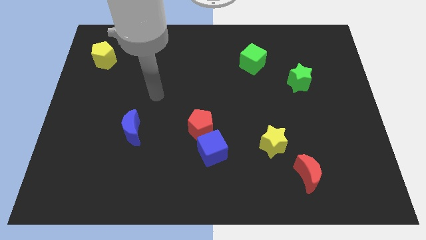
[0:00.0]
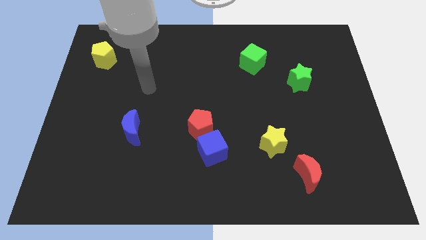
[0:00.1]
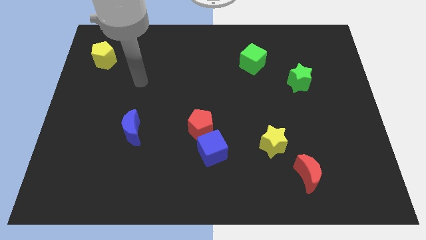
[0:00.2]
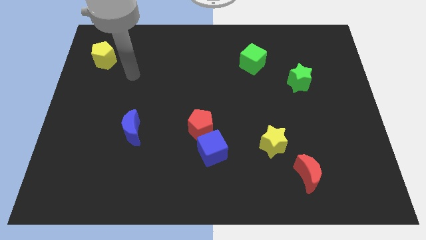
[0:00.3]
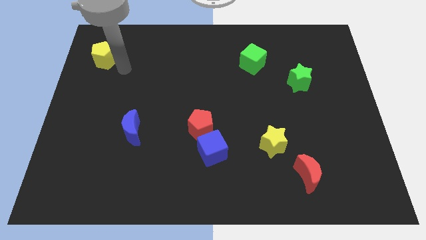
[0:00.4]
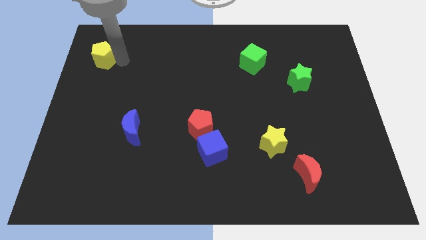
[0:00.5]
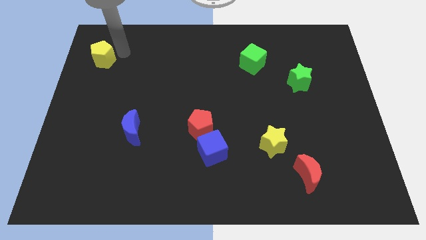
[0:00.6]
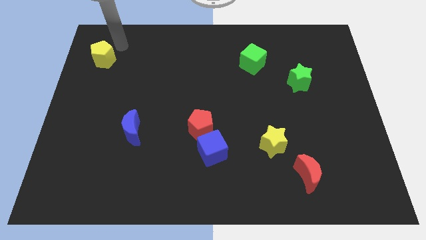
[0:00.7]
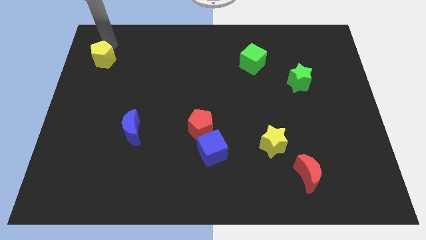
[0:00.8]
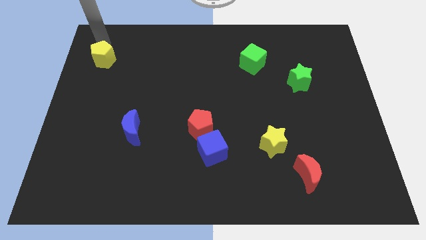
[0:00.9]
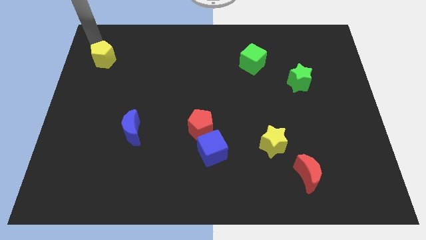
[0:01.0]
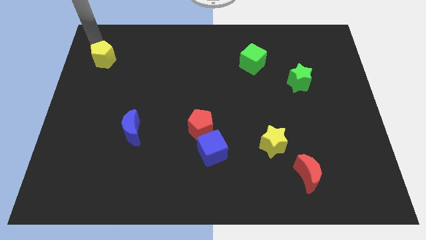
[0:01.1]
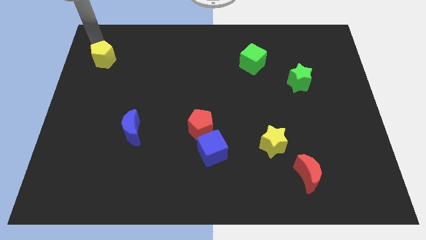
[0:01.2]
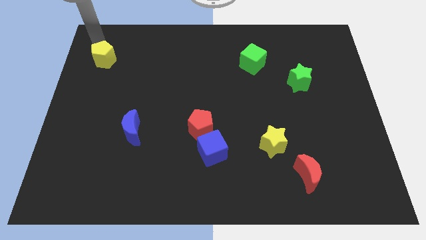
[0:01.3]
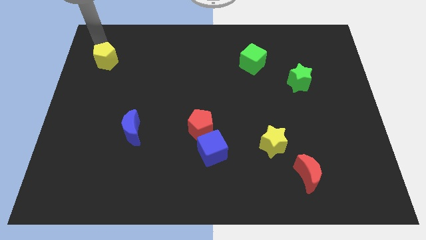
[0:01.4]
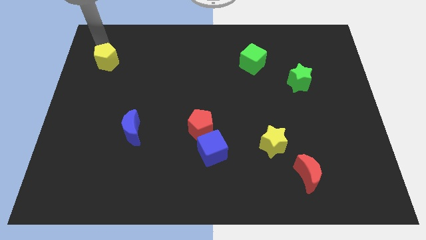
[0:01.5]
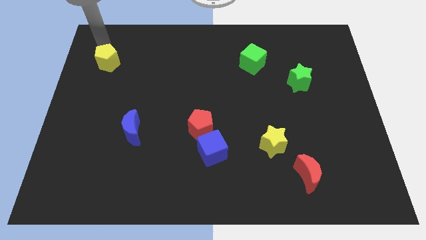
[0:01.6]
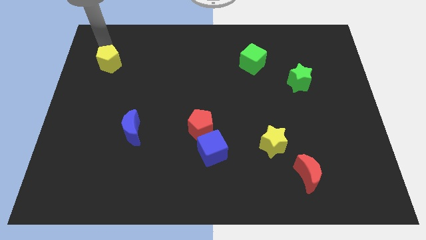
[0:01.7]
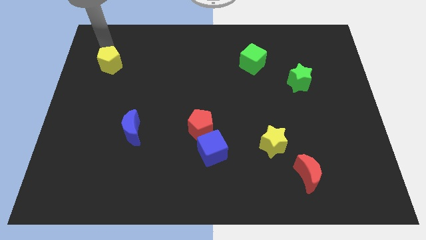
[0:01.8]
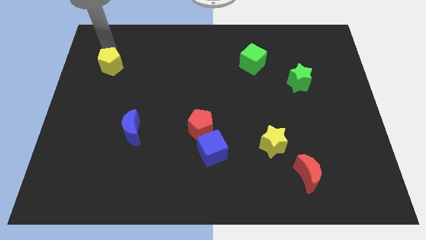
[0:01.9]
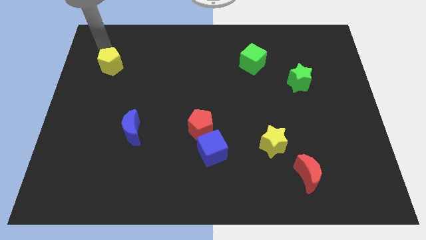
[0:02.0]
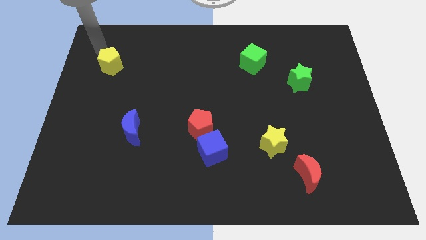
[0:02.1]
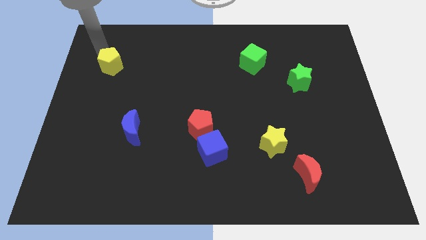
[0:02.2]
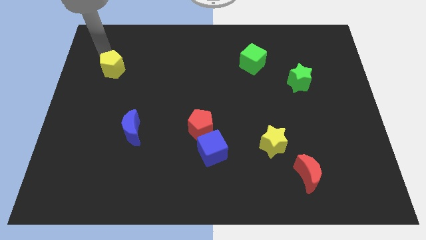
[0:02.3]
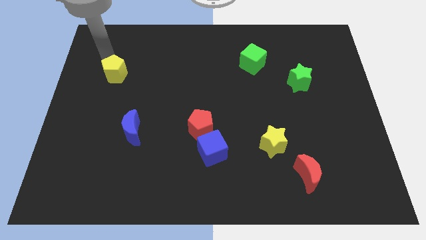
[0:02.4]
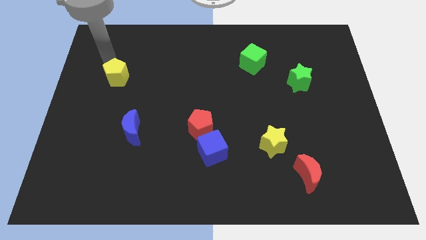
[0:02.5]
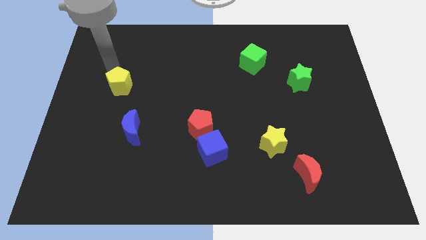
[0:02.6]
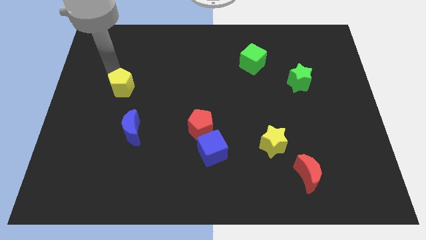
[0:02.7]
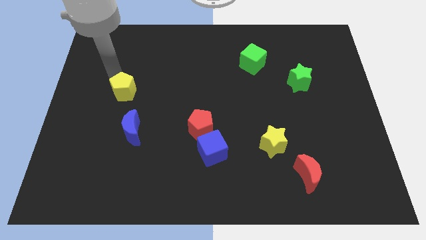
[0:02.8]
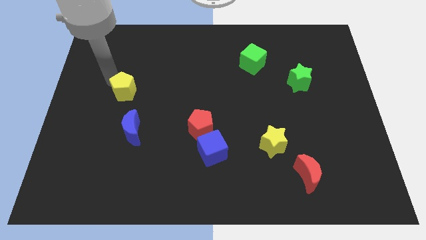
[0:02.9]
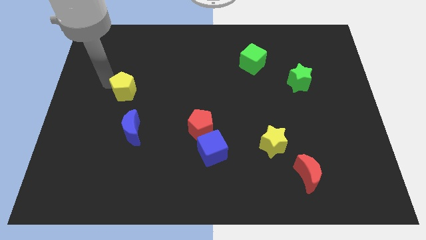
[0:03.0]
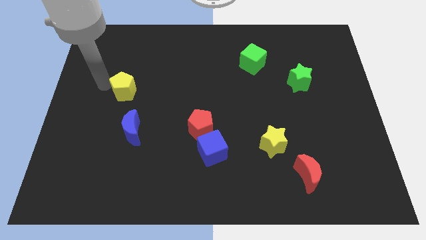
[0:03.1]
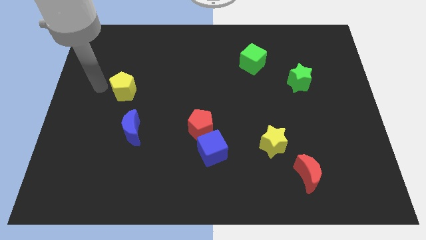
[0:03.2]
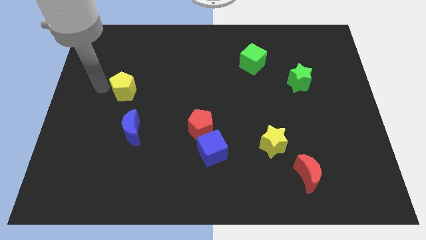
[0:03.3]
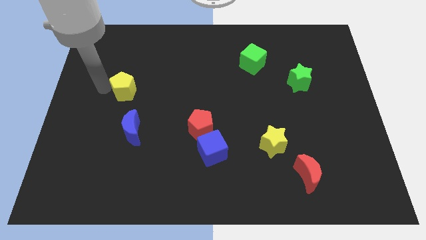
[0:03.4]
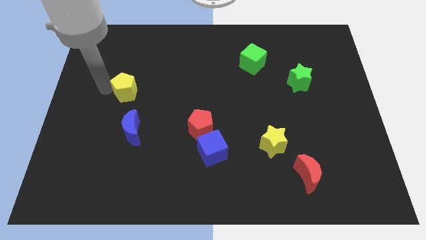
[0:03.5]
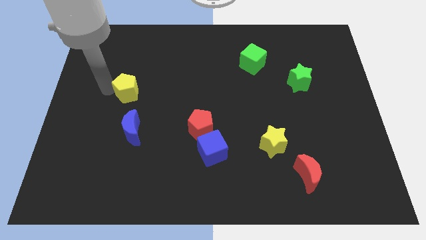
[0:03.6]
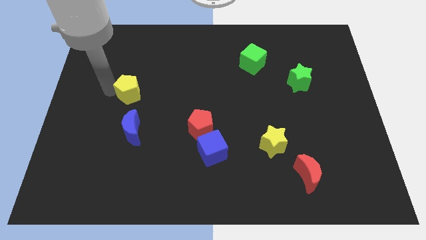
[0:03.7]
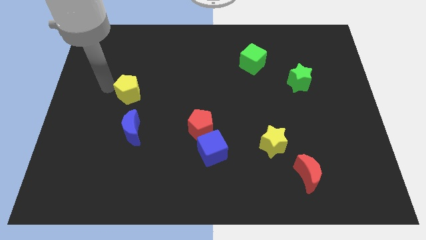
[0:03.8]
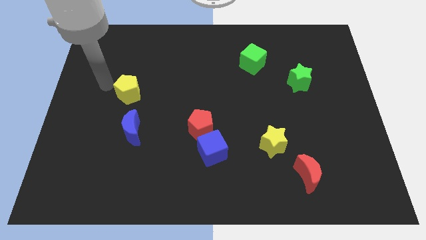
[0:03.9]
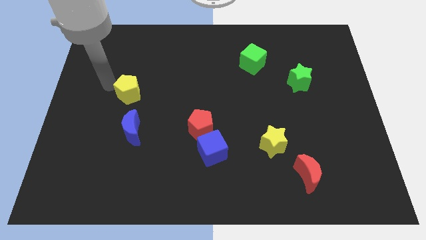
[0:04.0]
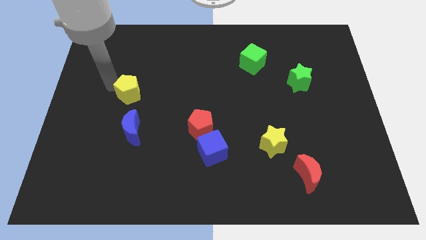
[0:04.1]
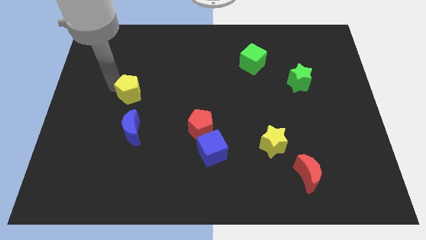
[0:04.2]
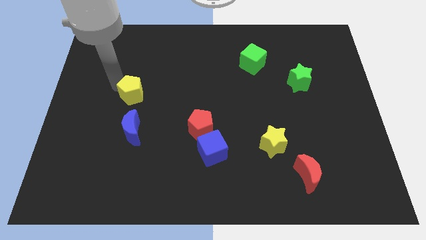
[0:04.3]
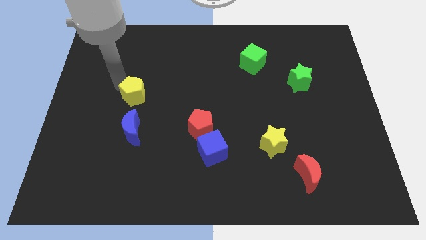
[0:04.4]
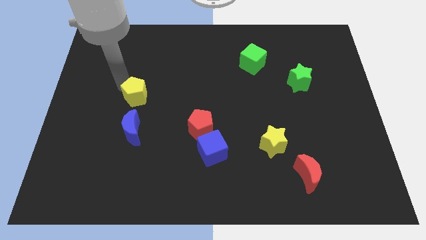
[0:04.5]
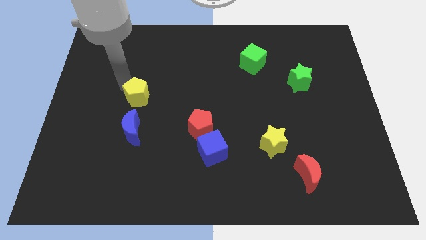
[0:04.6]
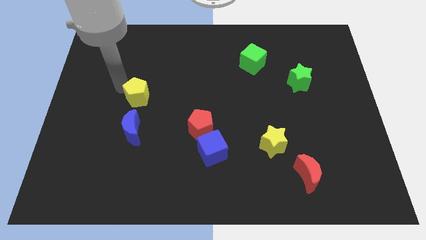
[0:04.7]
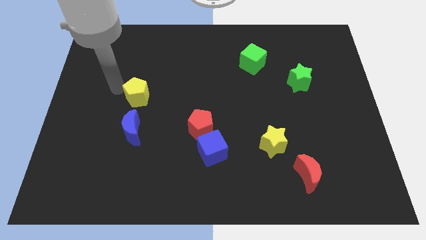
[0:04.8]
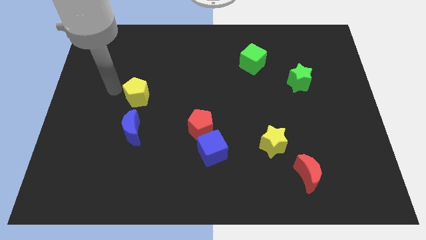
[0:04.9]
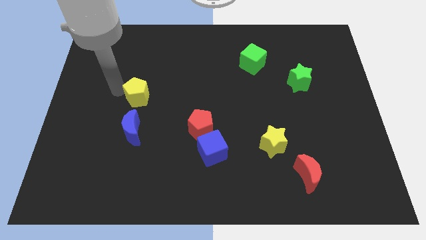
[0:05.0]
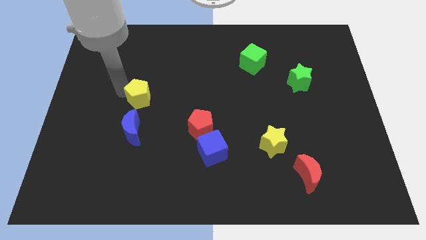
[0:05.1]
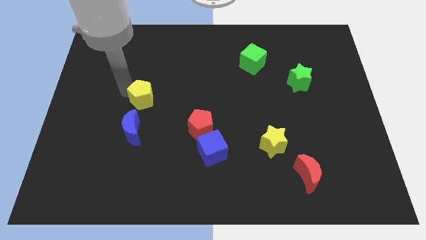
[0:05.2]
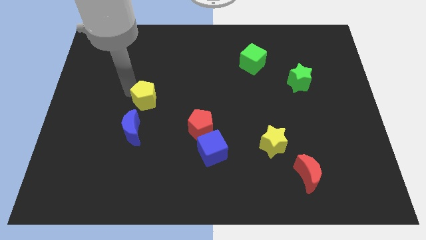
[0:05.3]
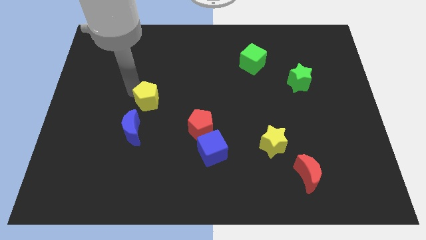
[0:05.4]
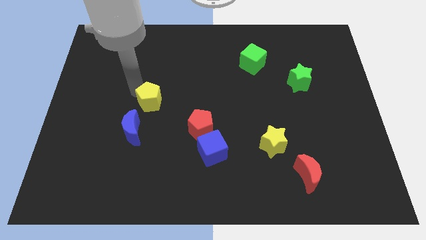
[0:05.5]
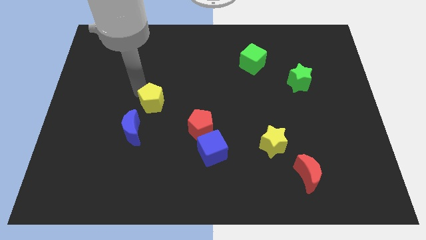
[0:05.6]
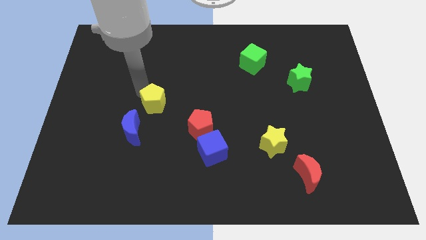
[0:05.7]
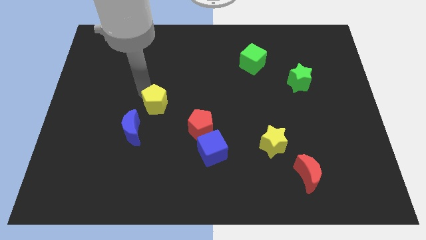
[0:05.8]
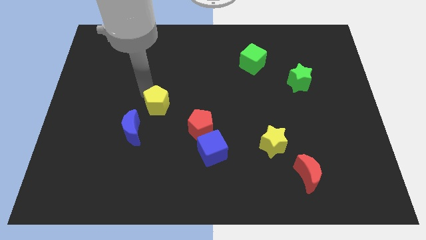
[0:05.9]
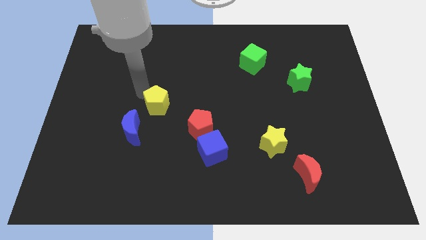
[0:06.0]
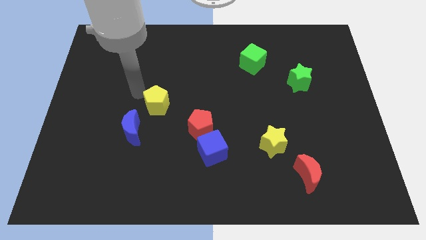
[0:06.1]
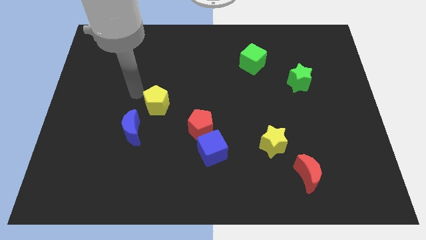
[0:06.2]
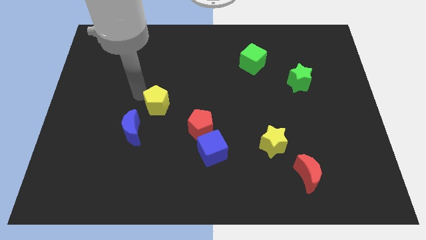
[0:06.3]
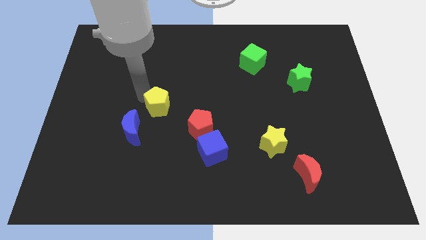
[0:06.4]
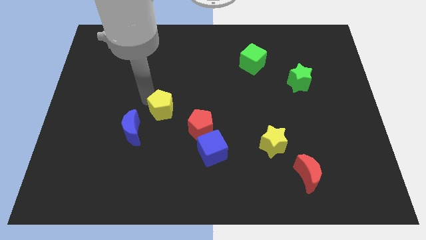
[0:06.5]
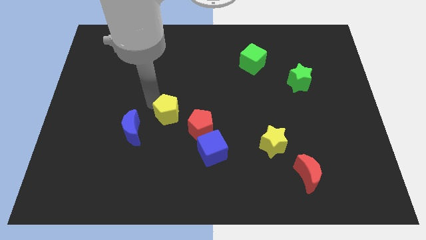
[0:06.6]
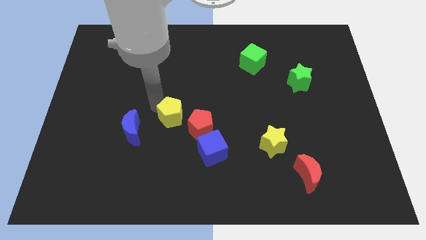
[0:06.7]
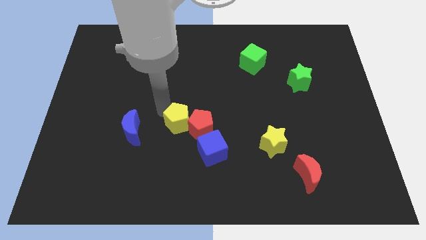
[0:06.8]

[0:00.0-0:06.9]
push the yellow pentagon to the red pentagon

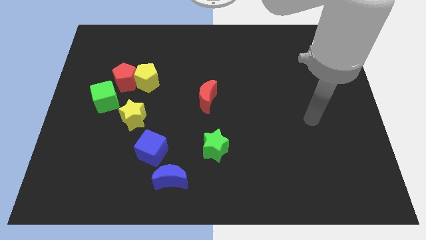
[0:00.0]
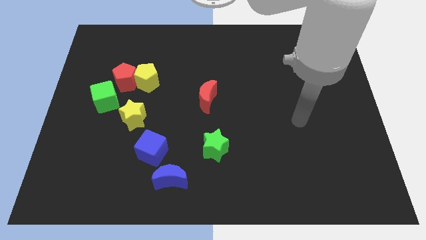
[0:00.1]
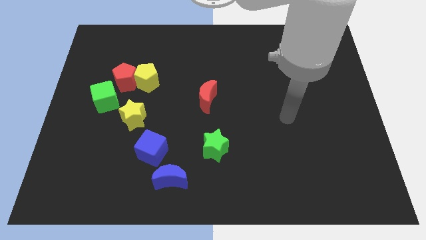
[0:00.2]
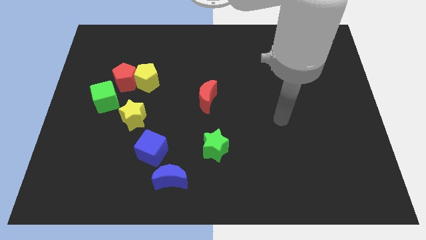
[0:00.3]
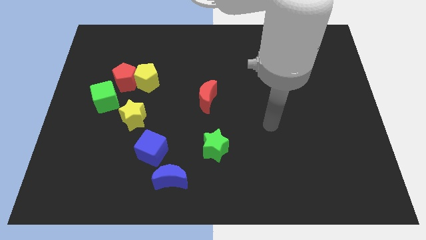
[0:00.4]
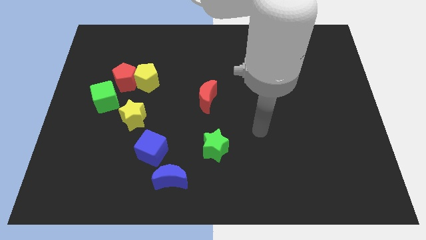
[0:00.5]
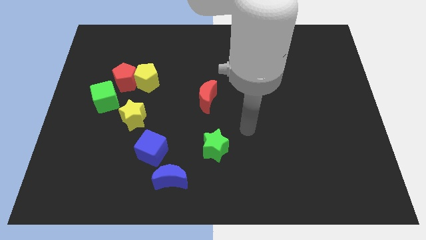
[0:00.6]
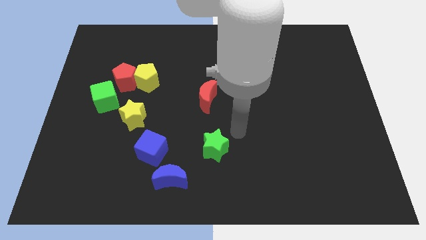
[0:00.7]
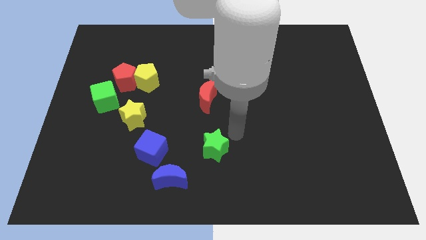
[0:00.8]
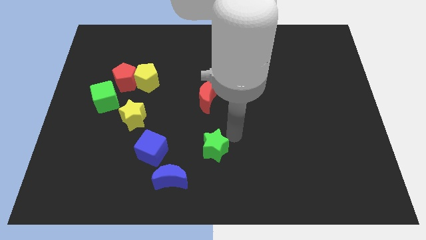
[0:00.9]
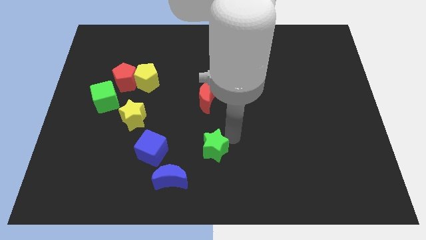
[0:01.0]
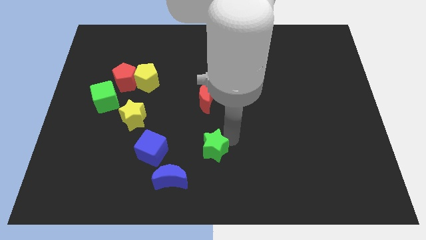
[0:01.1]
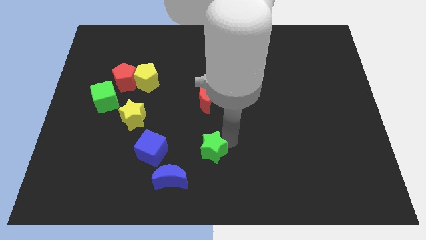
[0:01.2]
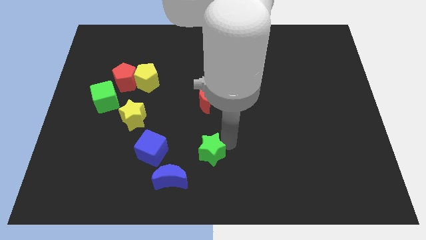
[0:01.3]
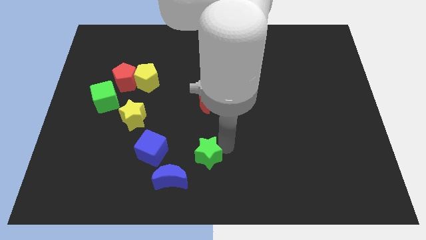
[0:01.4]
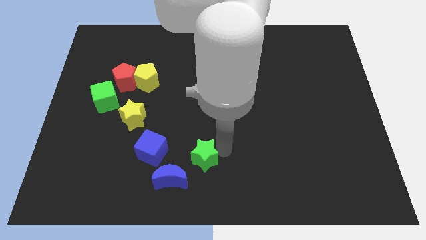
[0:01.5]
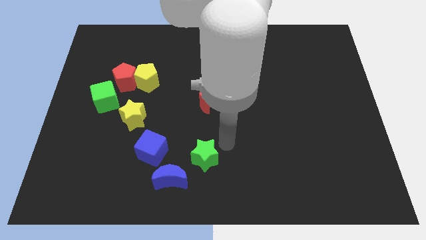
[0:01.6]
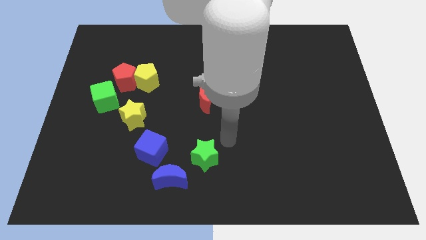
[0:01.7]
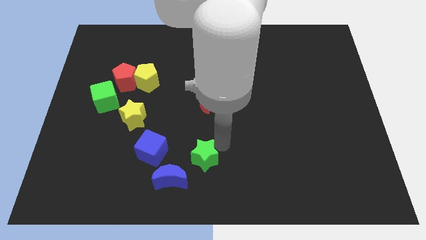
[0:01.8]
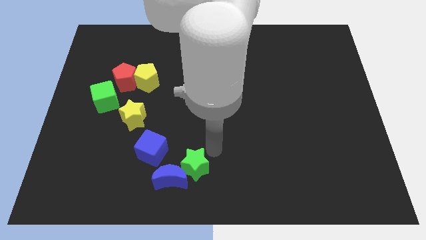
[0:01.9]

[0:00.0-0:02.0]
slide the green star to the blue moon
